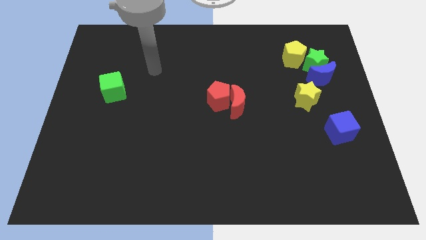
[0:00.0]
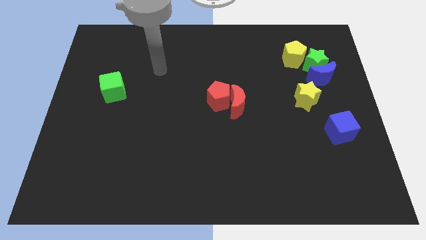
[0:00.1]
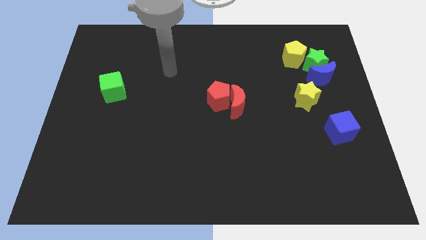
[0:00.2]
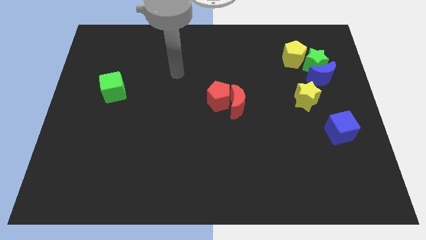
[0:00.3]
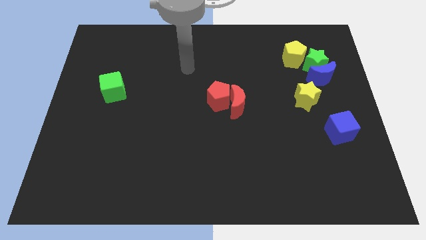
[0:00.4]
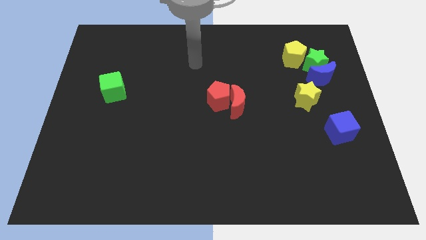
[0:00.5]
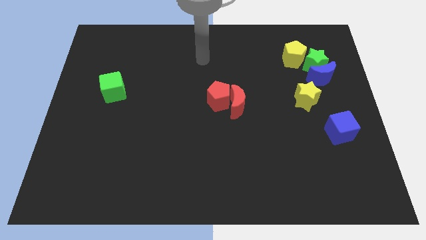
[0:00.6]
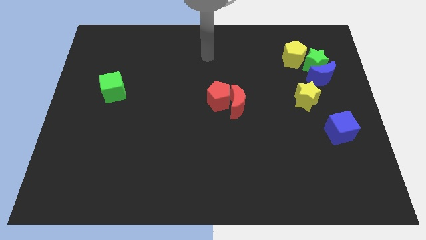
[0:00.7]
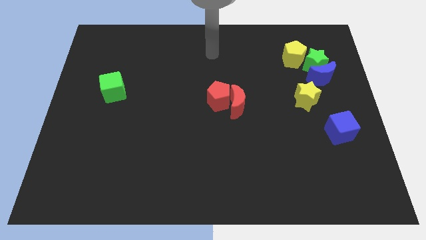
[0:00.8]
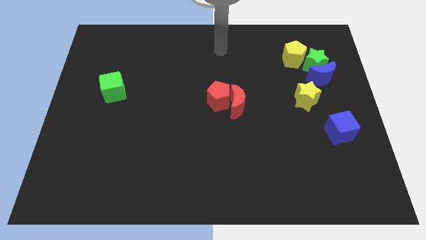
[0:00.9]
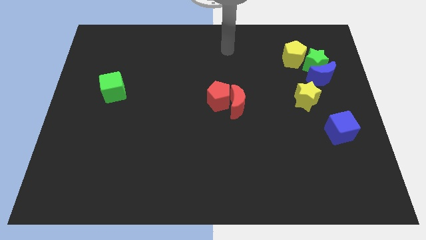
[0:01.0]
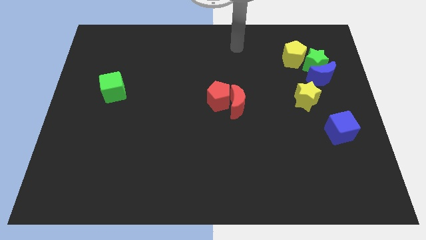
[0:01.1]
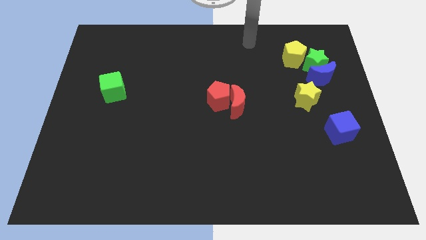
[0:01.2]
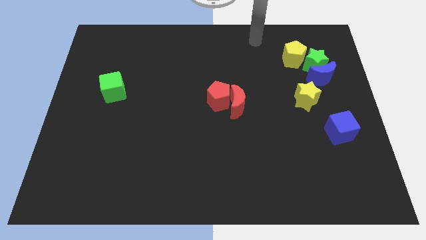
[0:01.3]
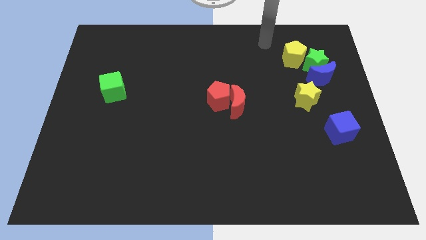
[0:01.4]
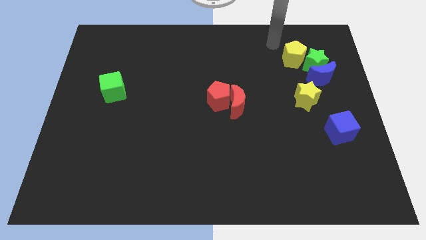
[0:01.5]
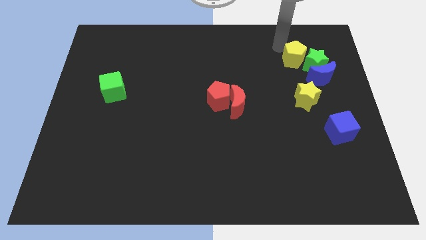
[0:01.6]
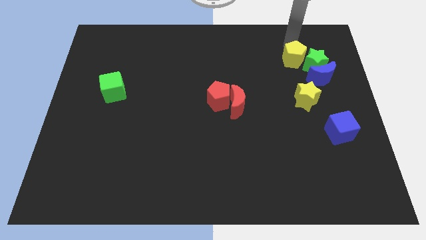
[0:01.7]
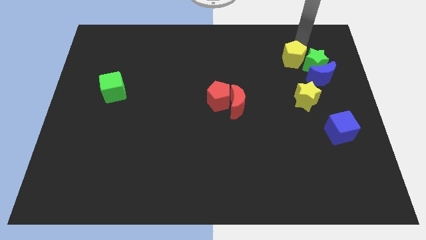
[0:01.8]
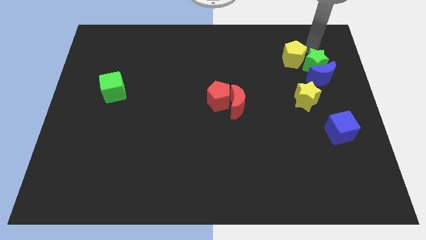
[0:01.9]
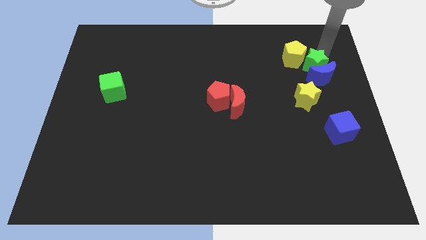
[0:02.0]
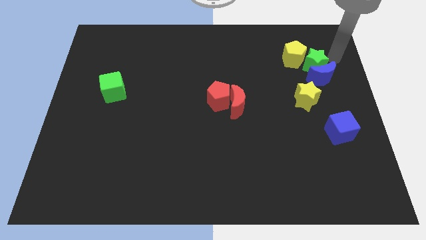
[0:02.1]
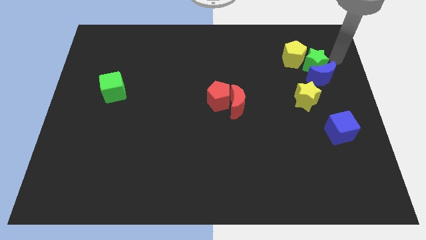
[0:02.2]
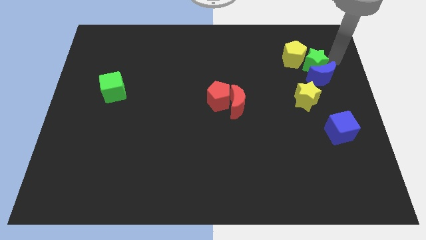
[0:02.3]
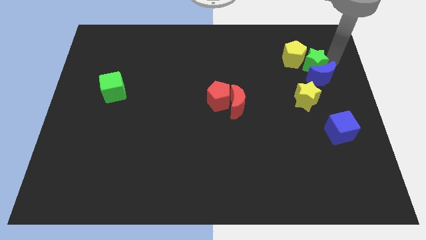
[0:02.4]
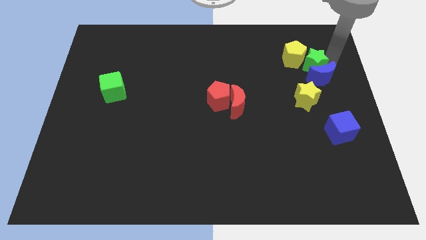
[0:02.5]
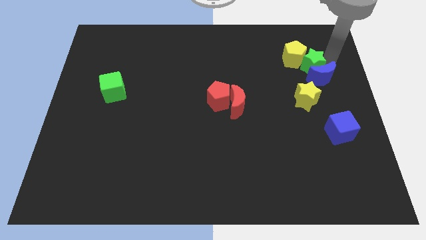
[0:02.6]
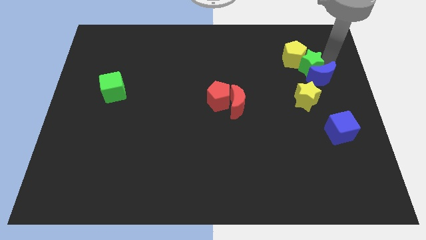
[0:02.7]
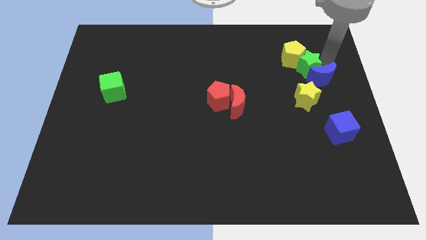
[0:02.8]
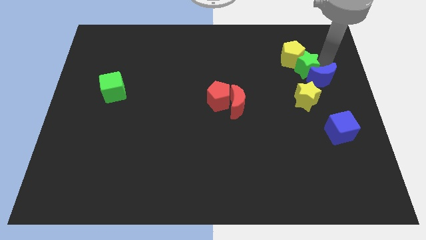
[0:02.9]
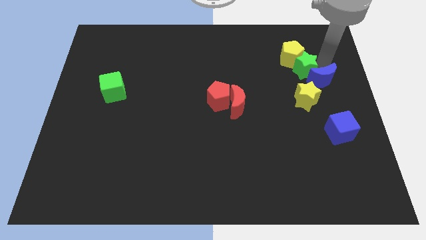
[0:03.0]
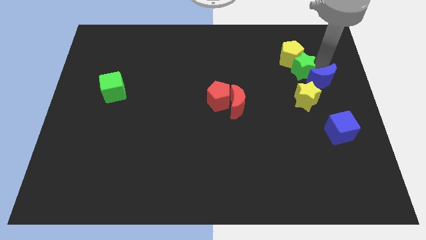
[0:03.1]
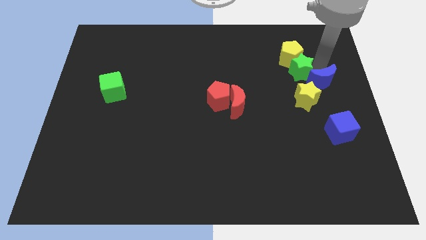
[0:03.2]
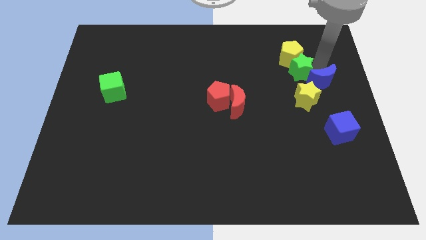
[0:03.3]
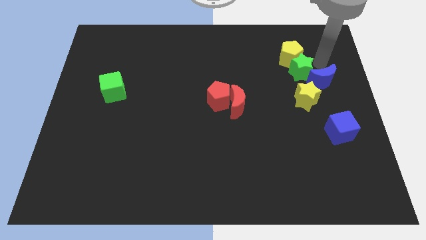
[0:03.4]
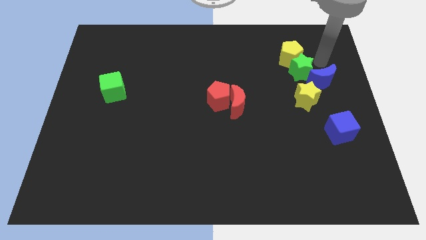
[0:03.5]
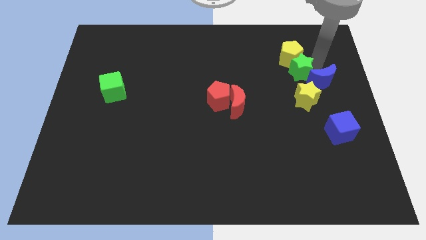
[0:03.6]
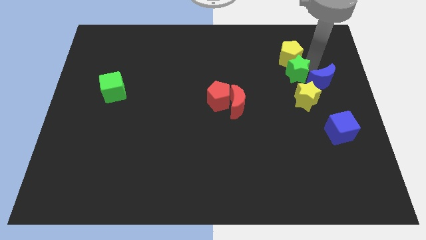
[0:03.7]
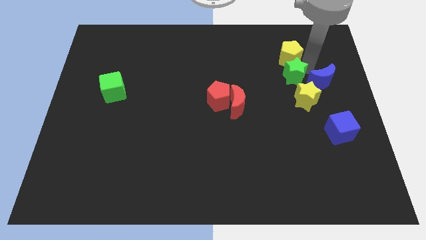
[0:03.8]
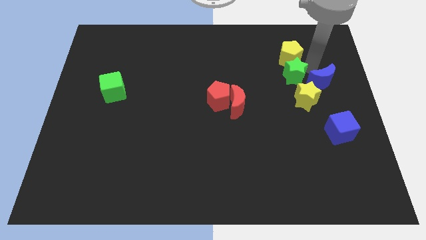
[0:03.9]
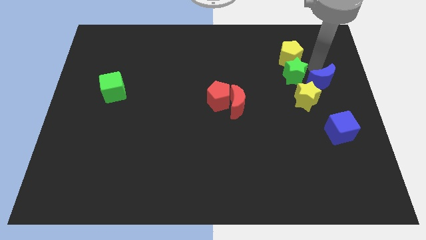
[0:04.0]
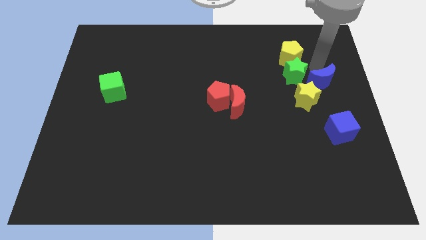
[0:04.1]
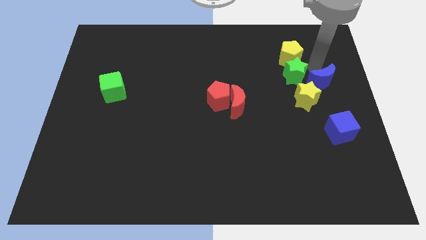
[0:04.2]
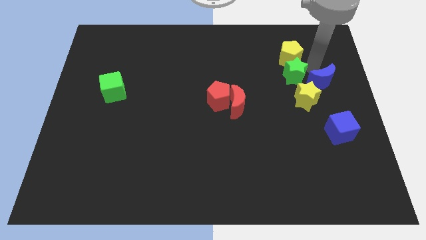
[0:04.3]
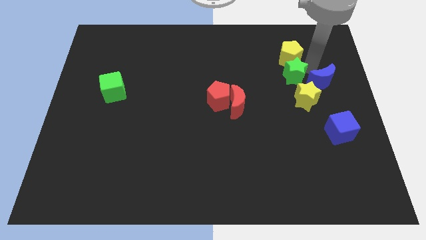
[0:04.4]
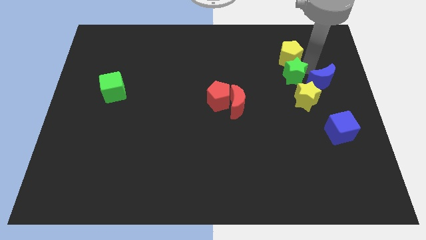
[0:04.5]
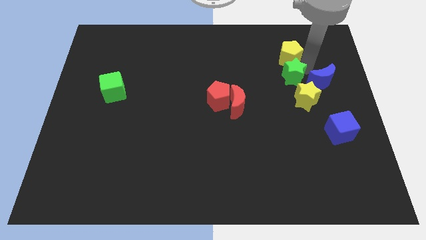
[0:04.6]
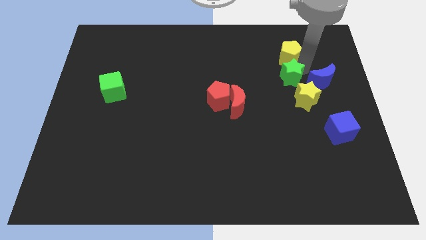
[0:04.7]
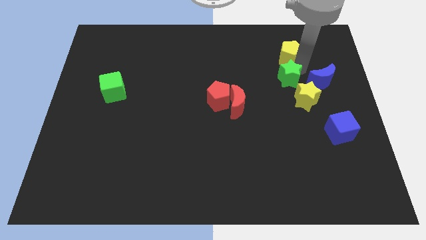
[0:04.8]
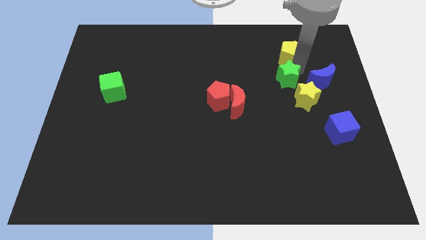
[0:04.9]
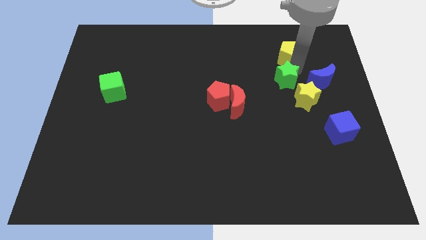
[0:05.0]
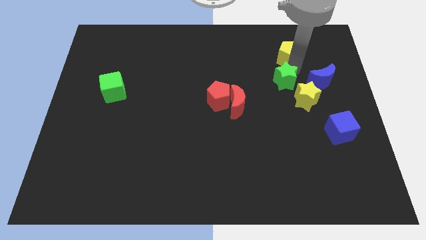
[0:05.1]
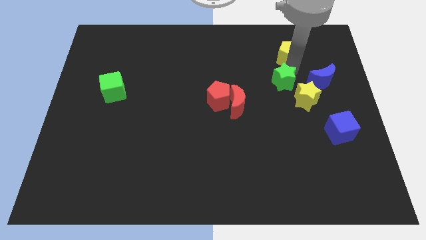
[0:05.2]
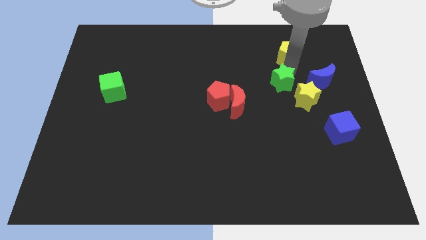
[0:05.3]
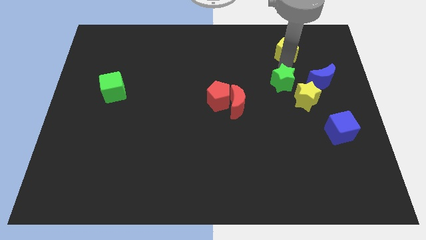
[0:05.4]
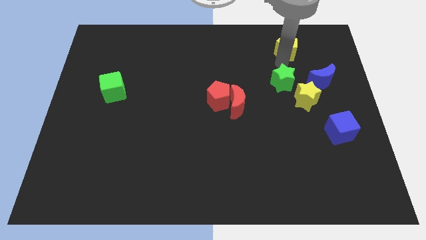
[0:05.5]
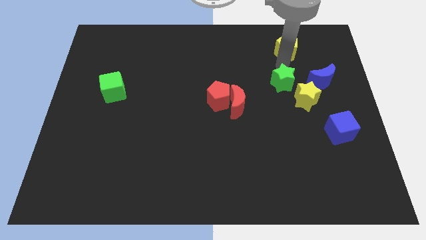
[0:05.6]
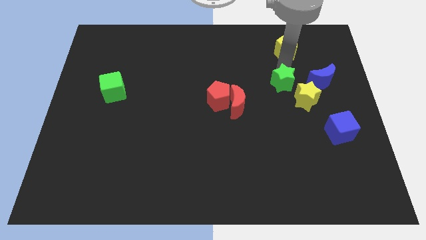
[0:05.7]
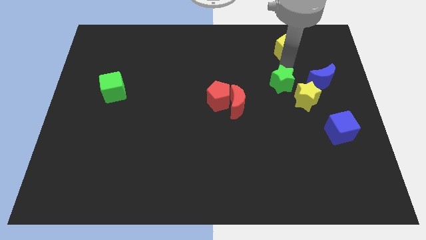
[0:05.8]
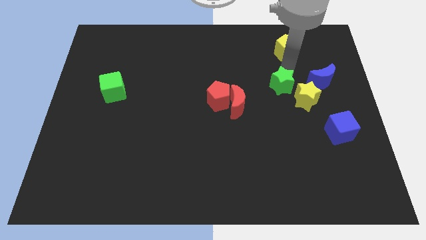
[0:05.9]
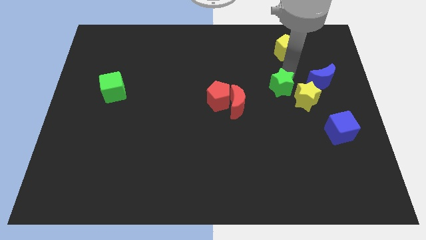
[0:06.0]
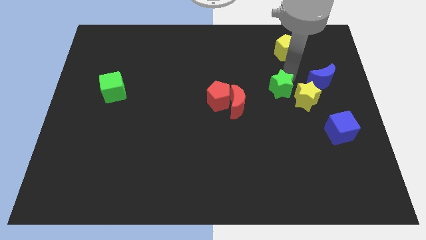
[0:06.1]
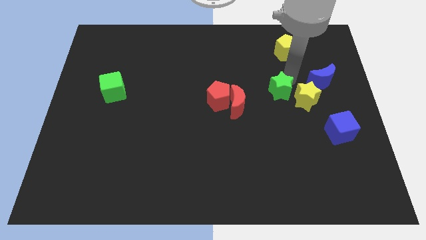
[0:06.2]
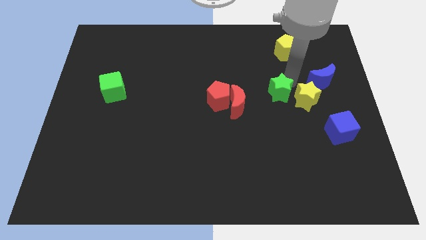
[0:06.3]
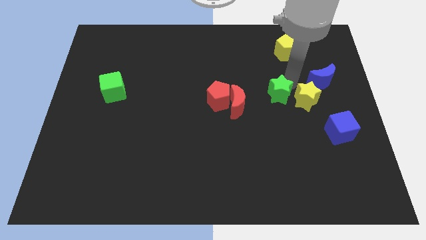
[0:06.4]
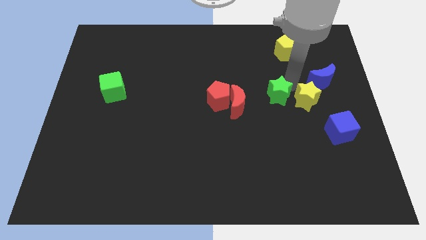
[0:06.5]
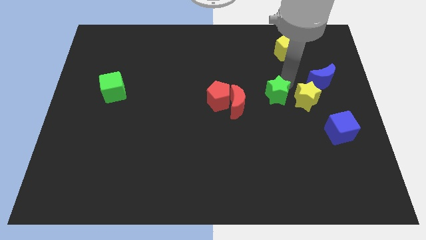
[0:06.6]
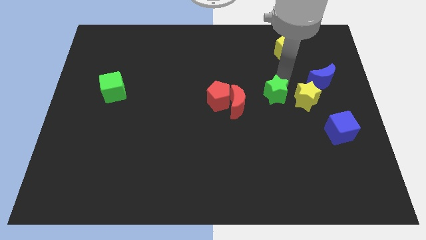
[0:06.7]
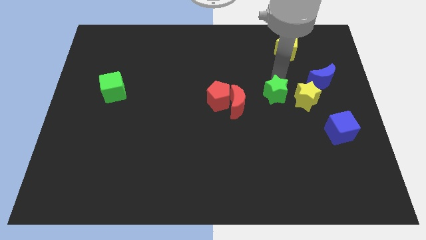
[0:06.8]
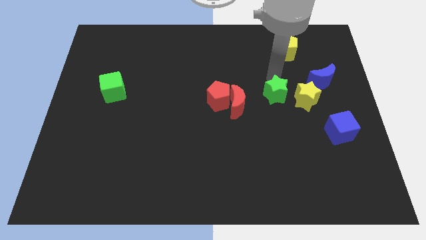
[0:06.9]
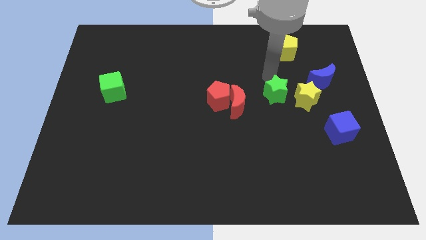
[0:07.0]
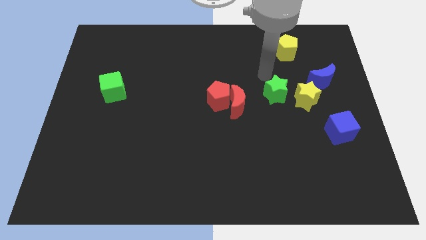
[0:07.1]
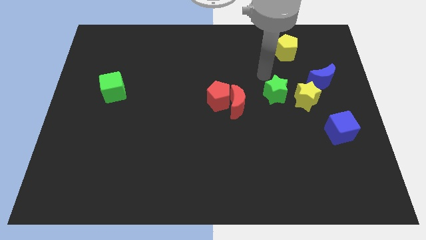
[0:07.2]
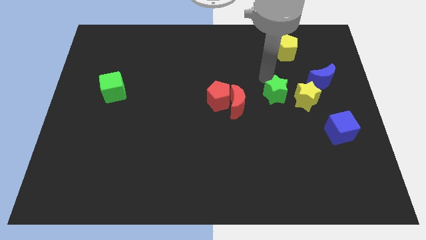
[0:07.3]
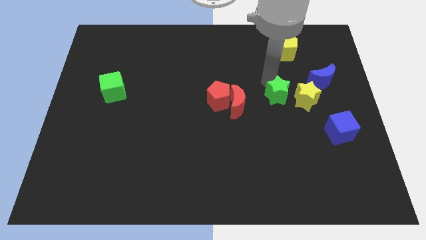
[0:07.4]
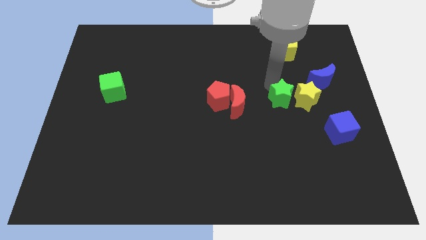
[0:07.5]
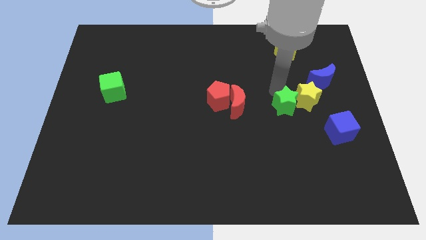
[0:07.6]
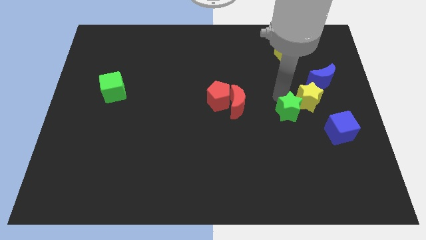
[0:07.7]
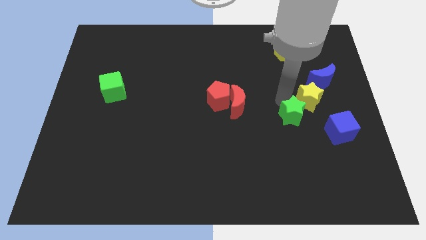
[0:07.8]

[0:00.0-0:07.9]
move the green star below the yellow star

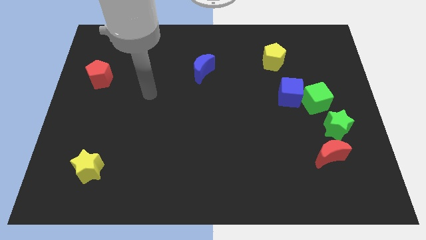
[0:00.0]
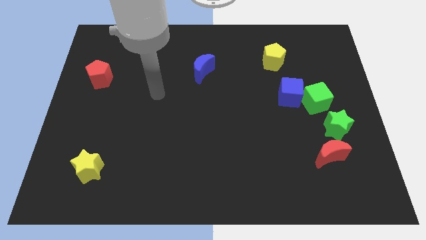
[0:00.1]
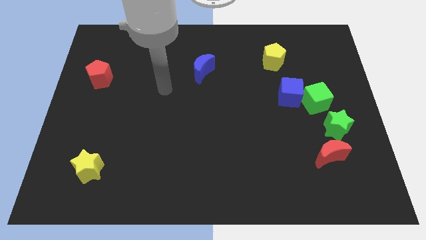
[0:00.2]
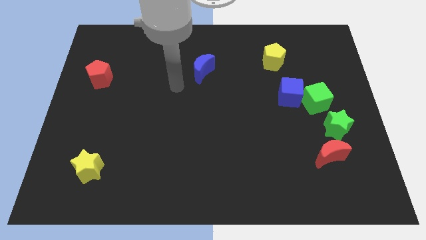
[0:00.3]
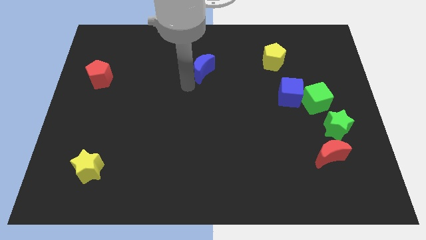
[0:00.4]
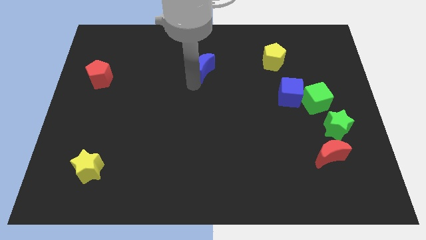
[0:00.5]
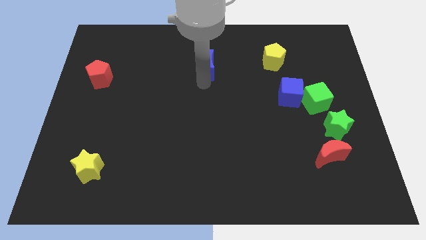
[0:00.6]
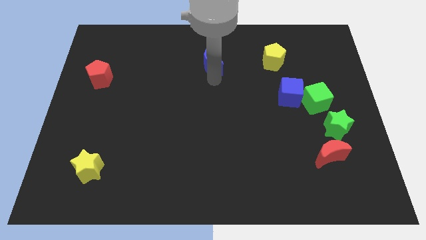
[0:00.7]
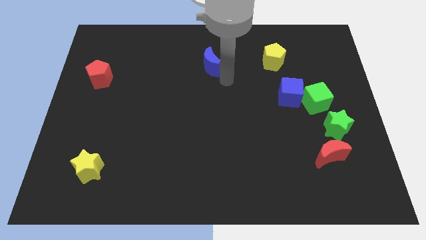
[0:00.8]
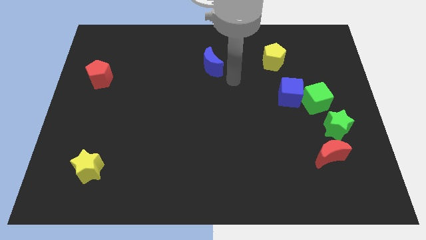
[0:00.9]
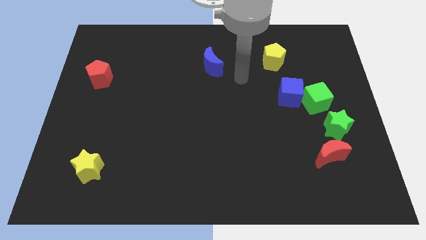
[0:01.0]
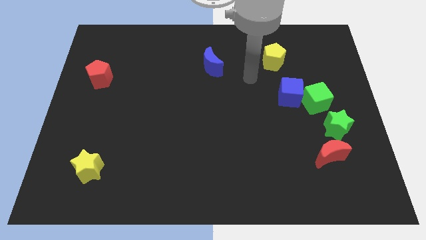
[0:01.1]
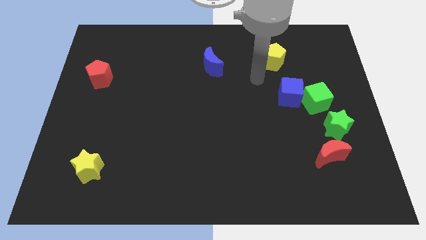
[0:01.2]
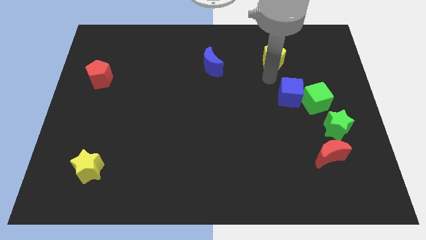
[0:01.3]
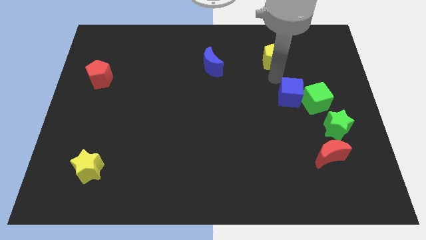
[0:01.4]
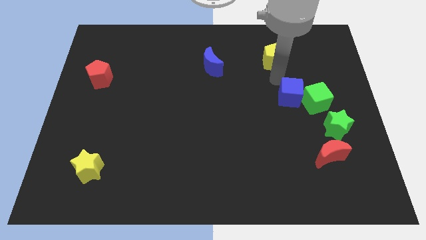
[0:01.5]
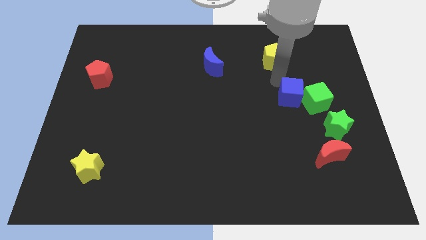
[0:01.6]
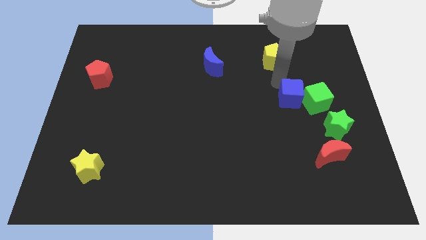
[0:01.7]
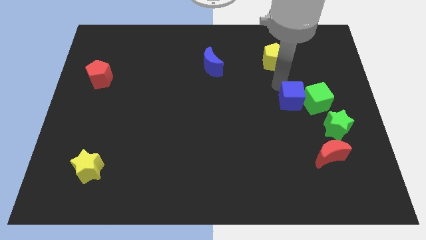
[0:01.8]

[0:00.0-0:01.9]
put the blue cube to the bottom left side of the green cube
